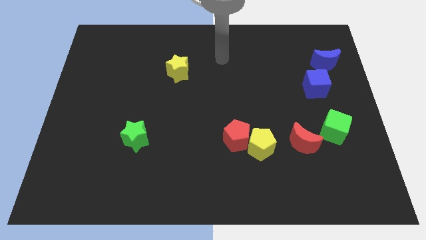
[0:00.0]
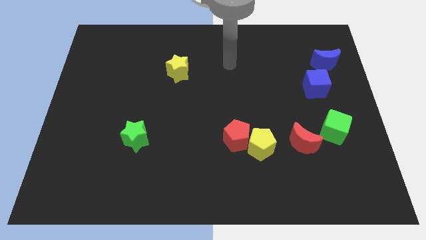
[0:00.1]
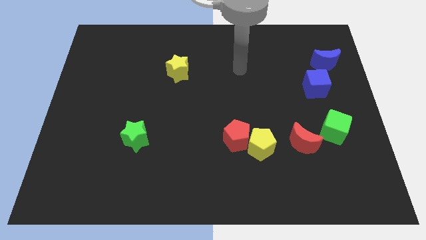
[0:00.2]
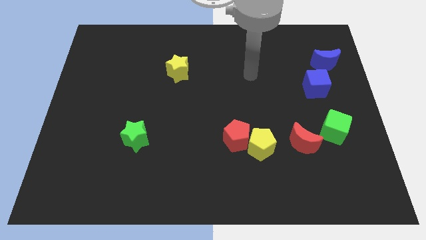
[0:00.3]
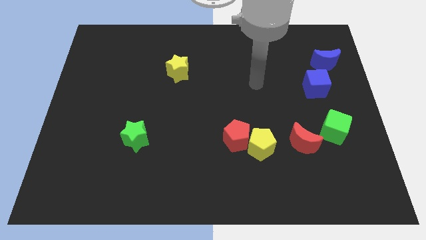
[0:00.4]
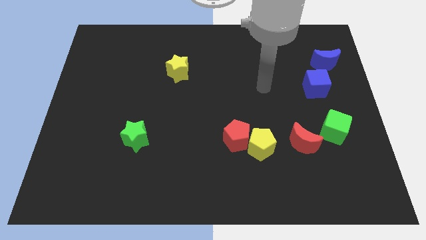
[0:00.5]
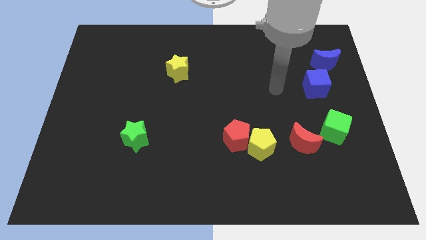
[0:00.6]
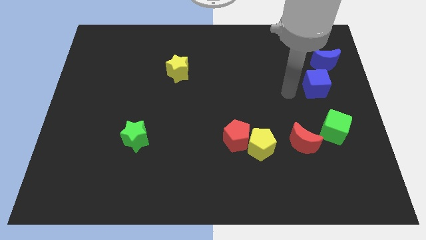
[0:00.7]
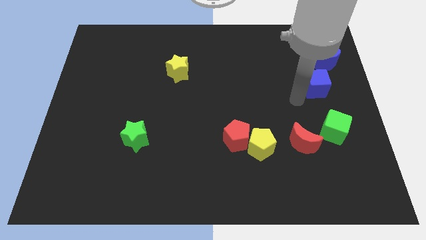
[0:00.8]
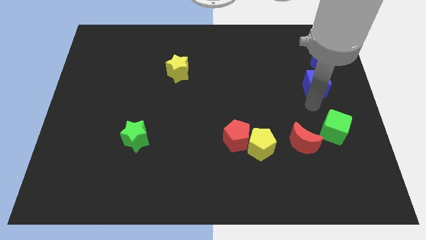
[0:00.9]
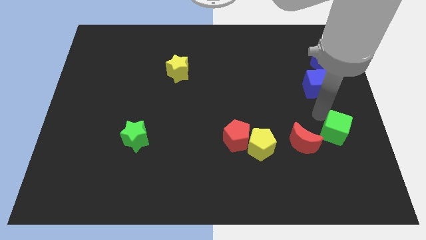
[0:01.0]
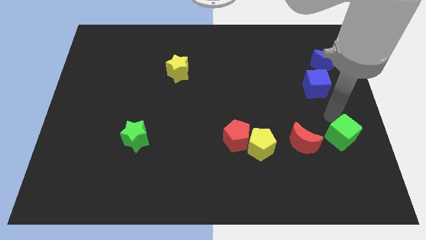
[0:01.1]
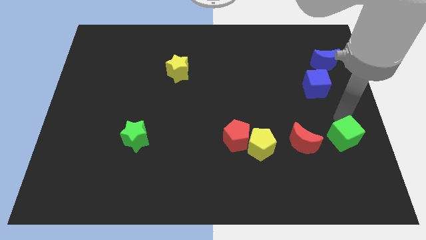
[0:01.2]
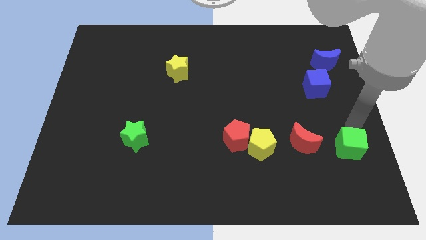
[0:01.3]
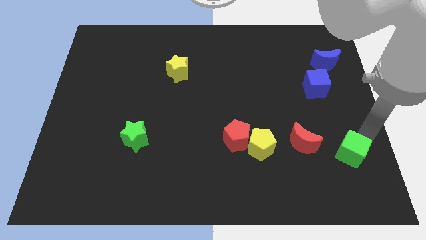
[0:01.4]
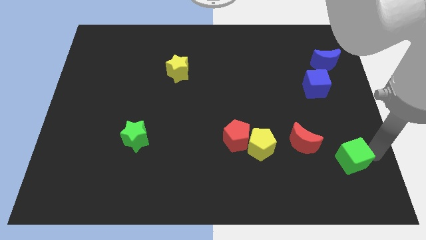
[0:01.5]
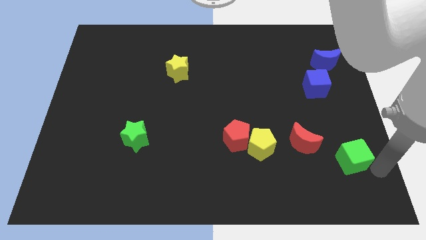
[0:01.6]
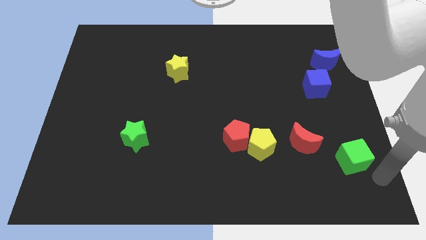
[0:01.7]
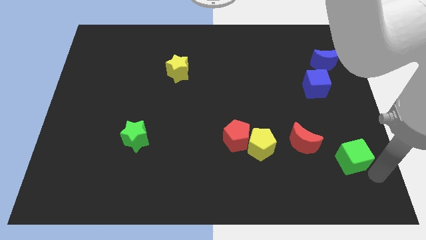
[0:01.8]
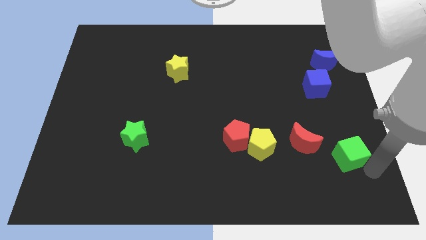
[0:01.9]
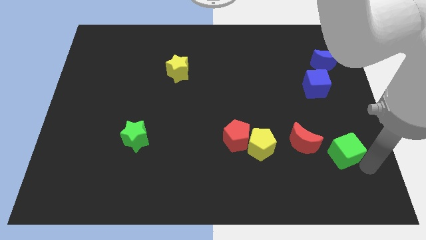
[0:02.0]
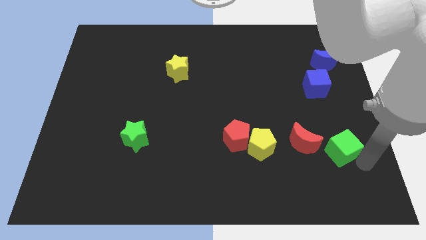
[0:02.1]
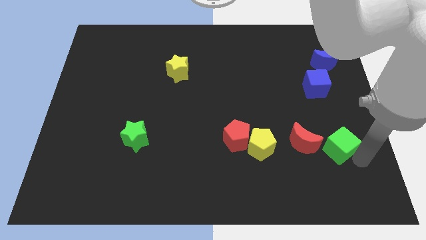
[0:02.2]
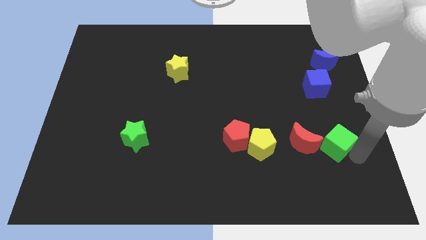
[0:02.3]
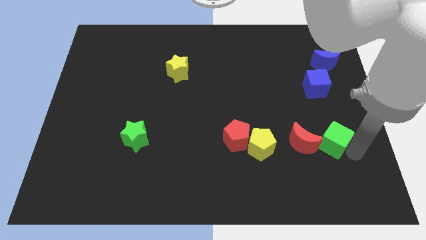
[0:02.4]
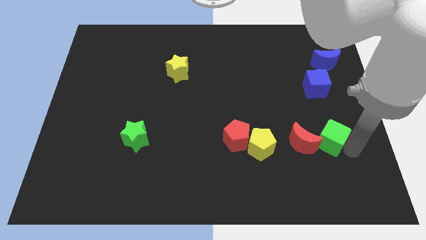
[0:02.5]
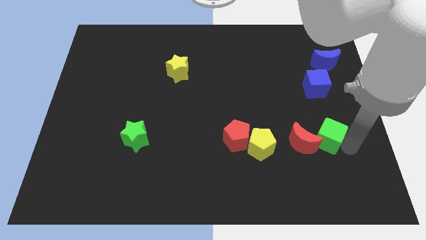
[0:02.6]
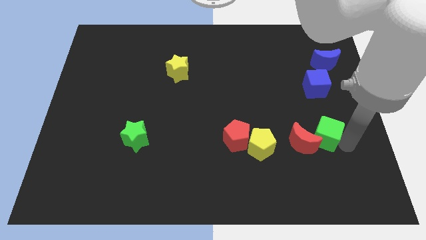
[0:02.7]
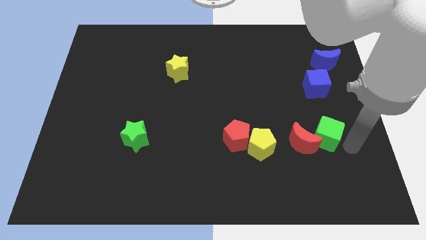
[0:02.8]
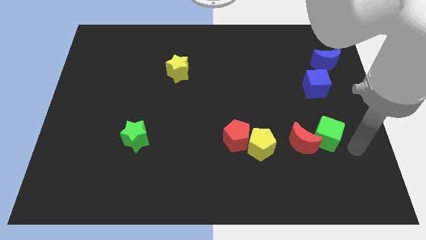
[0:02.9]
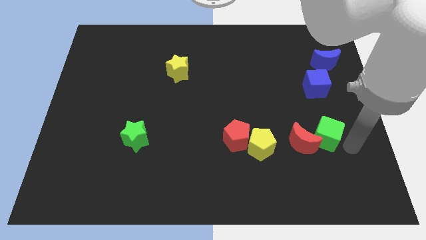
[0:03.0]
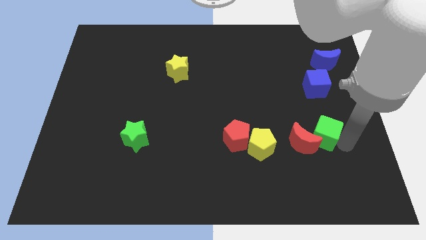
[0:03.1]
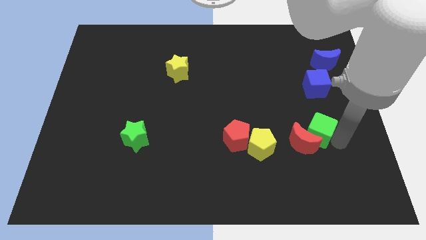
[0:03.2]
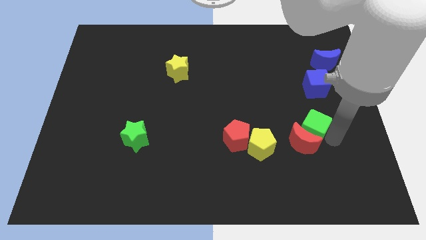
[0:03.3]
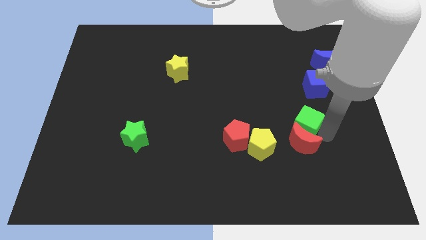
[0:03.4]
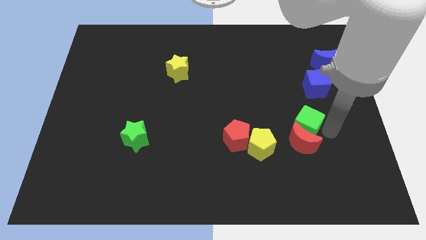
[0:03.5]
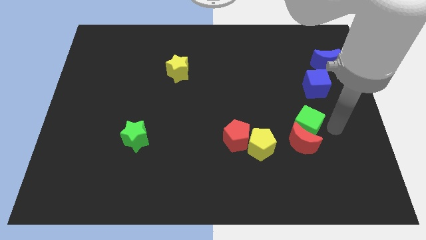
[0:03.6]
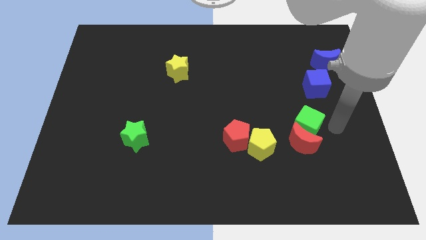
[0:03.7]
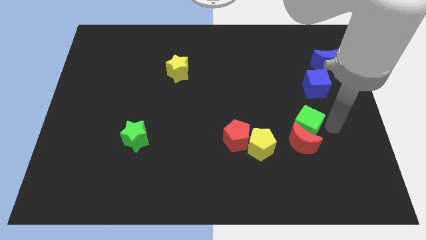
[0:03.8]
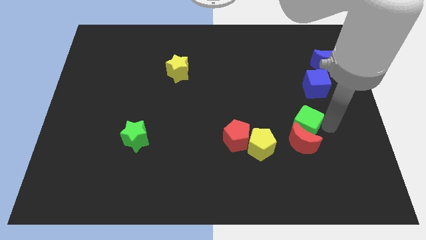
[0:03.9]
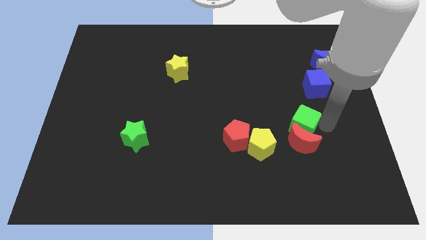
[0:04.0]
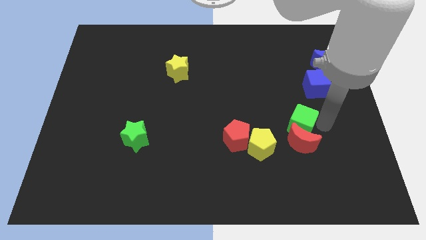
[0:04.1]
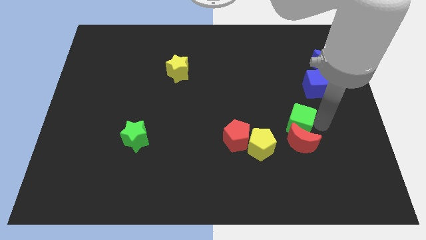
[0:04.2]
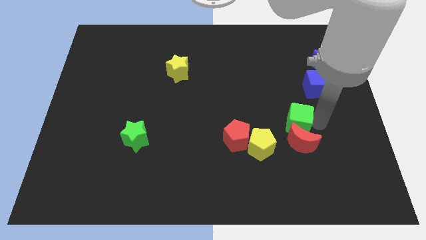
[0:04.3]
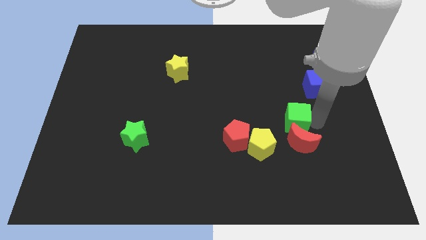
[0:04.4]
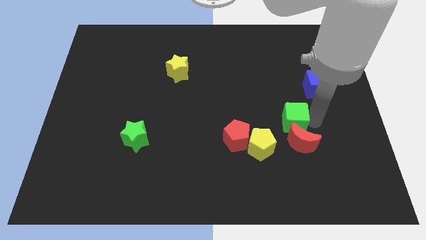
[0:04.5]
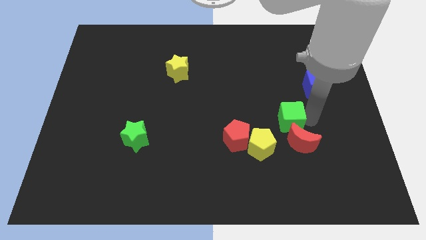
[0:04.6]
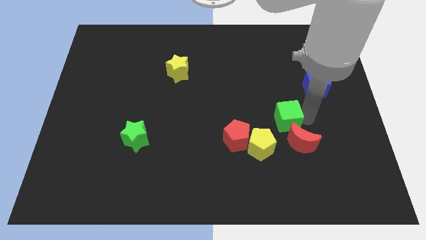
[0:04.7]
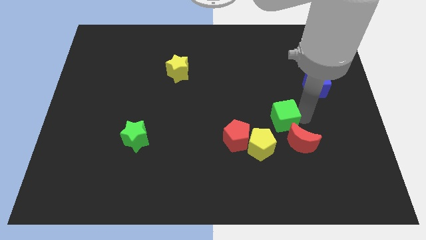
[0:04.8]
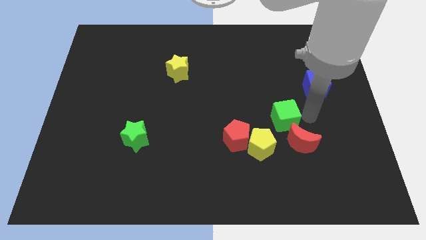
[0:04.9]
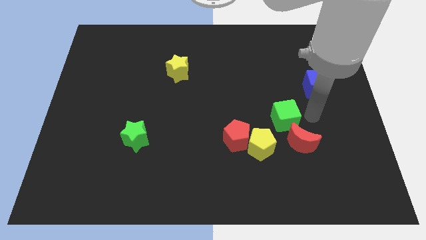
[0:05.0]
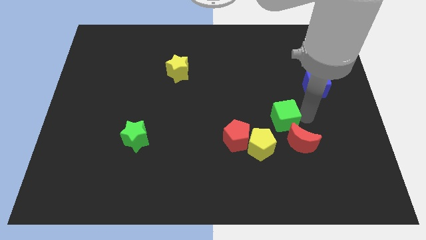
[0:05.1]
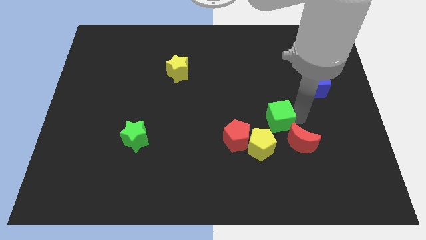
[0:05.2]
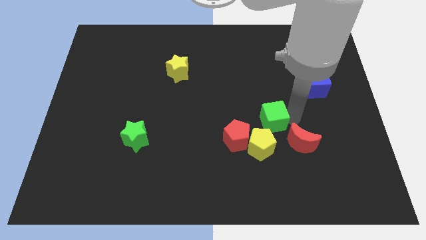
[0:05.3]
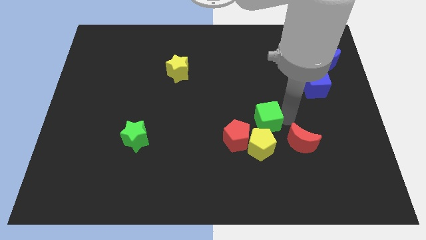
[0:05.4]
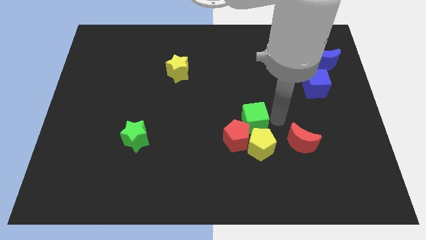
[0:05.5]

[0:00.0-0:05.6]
put the green cube to the top left side of the yellow pentagon

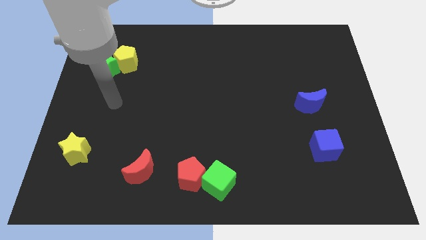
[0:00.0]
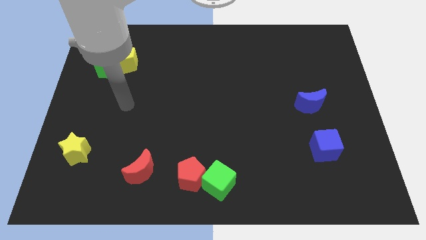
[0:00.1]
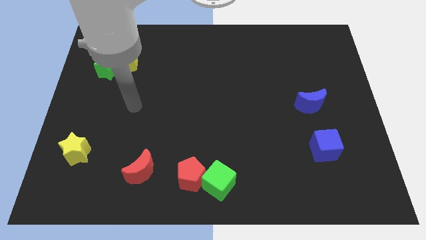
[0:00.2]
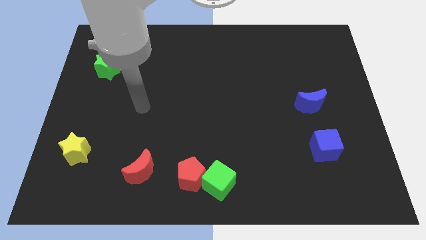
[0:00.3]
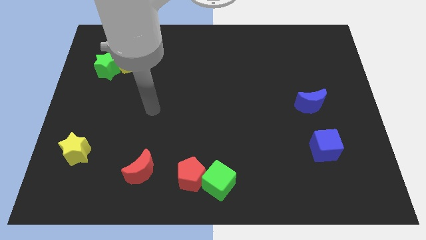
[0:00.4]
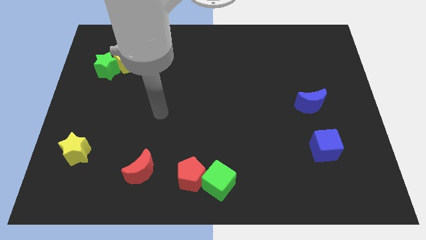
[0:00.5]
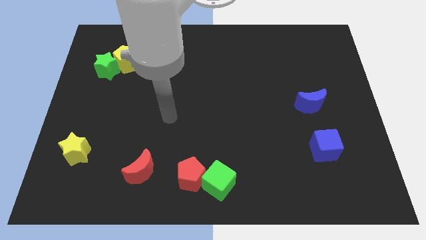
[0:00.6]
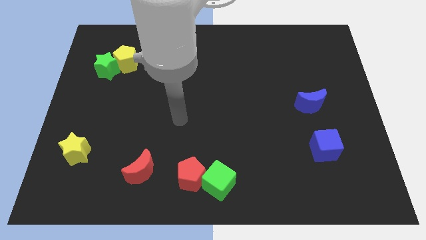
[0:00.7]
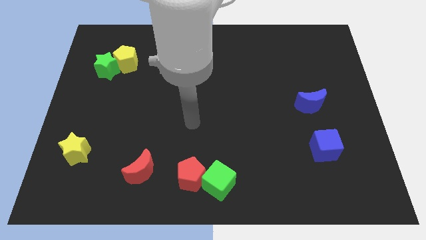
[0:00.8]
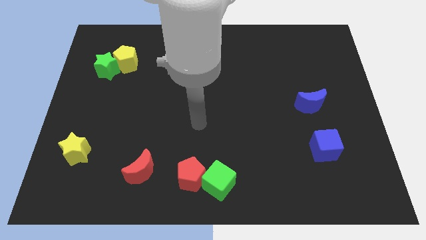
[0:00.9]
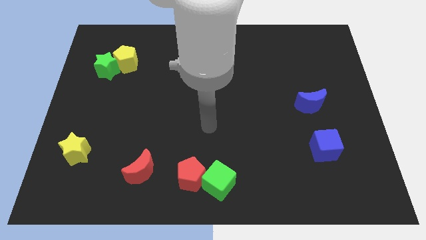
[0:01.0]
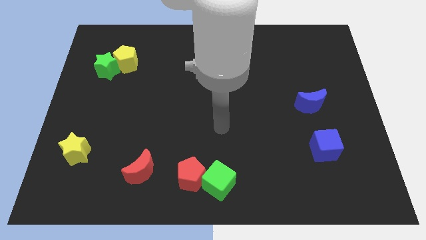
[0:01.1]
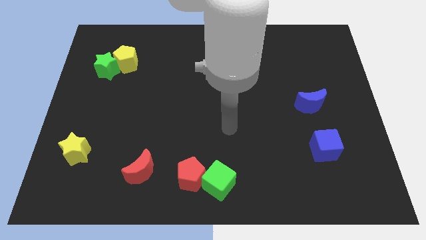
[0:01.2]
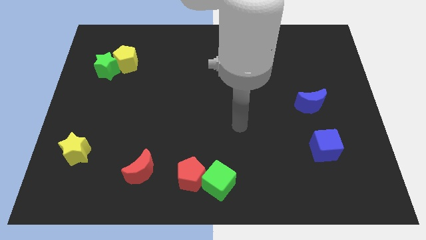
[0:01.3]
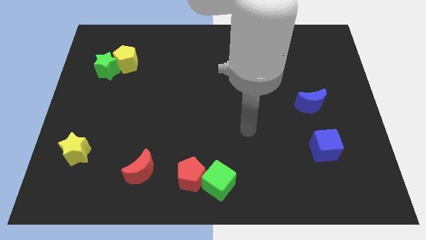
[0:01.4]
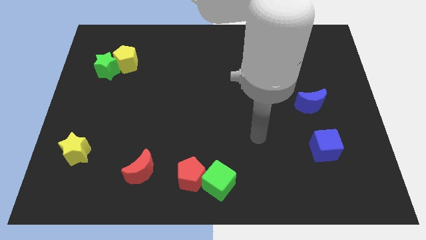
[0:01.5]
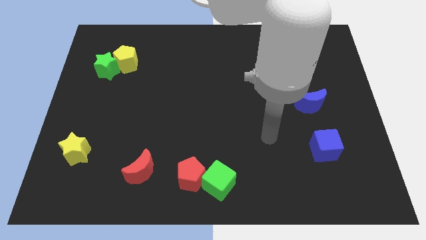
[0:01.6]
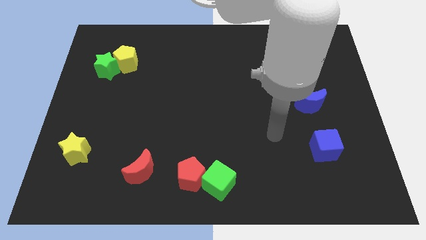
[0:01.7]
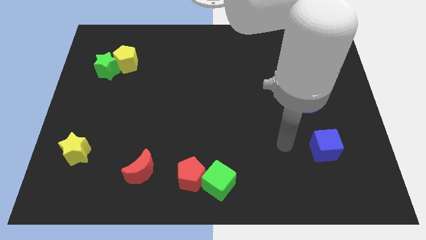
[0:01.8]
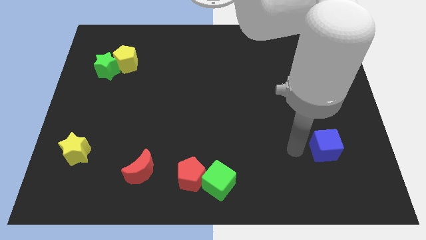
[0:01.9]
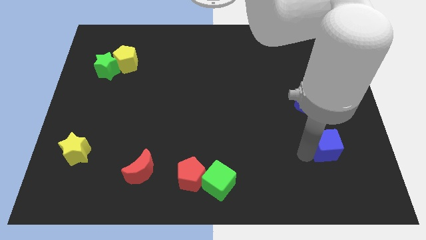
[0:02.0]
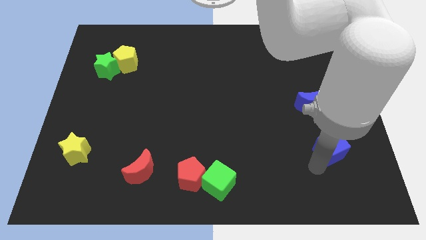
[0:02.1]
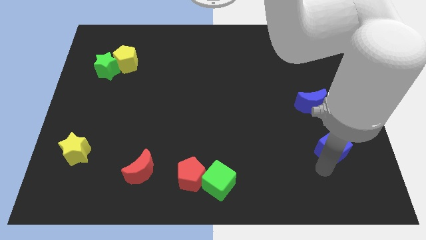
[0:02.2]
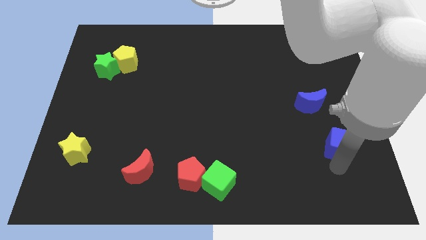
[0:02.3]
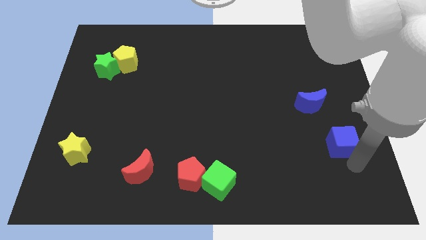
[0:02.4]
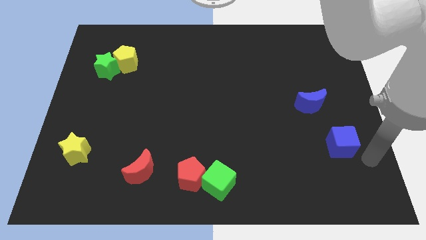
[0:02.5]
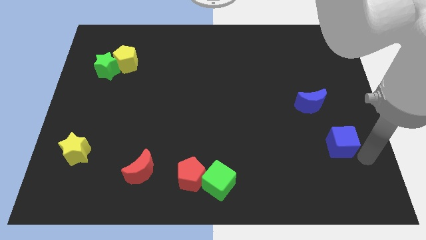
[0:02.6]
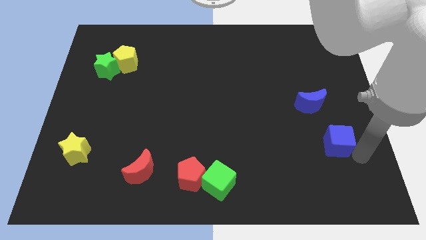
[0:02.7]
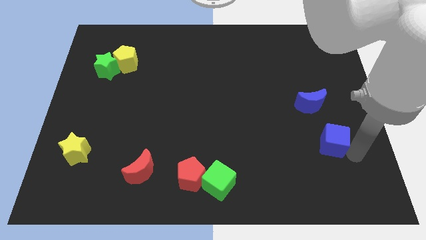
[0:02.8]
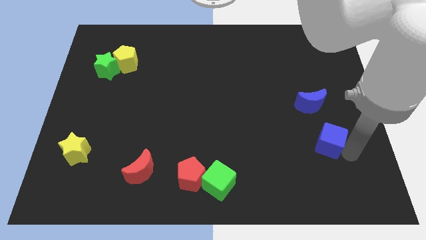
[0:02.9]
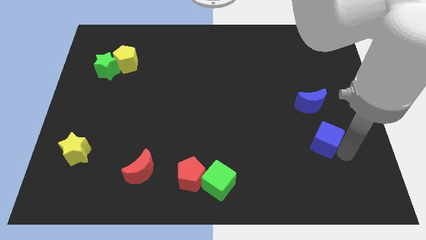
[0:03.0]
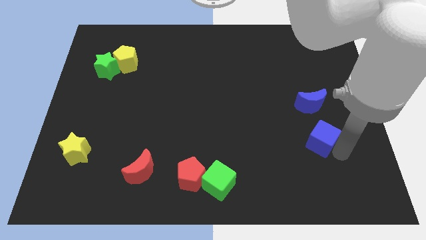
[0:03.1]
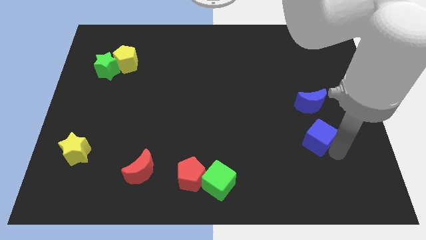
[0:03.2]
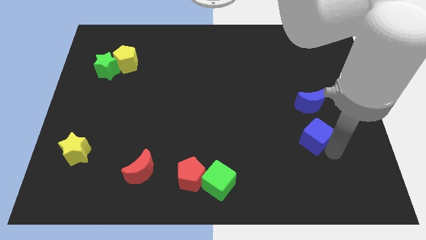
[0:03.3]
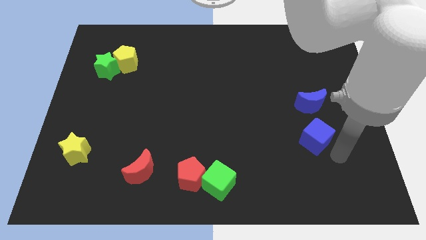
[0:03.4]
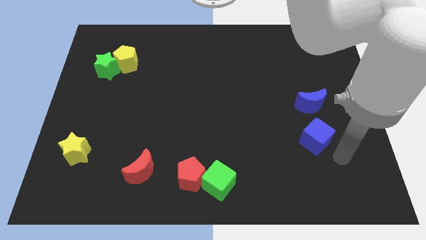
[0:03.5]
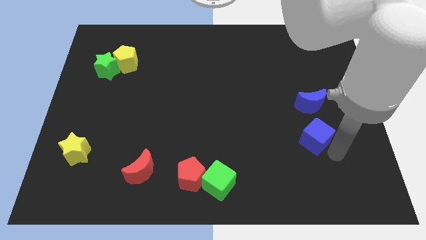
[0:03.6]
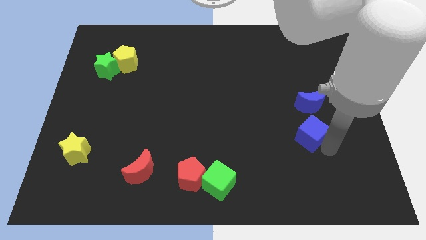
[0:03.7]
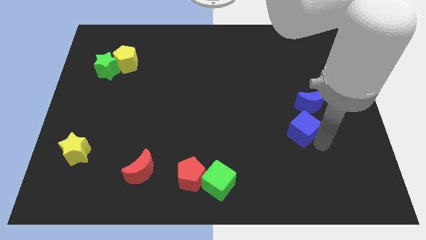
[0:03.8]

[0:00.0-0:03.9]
move the blue cube diagonally down and to the left of the blue moon
